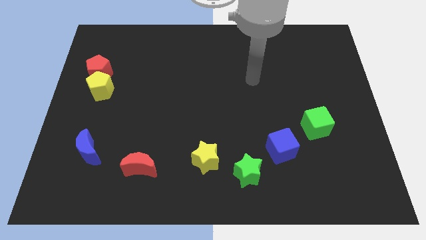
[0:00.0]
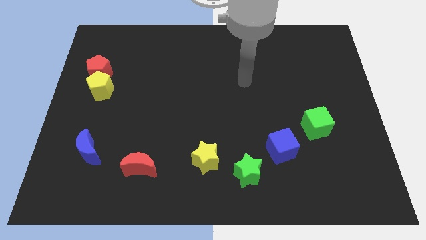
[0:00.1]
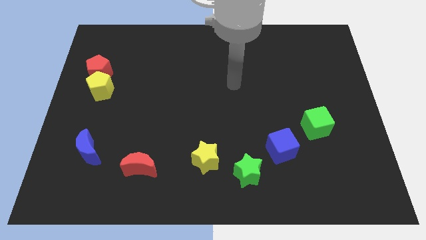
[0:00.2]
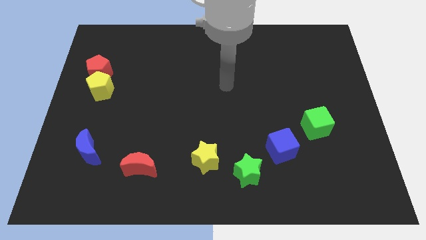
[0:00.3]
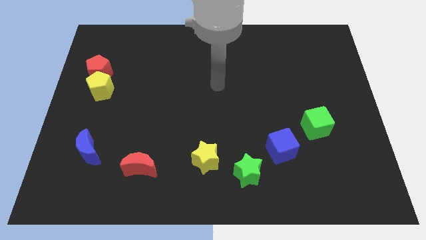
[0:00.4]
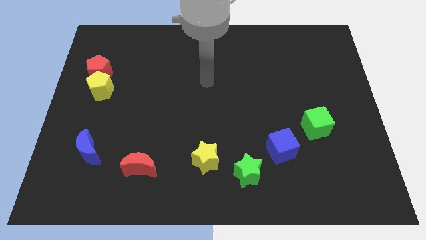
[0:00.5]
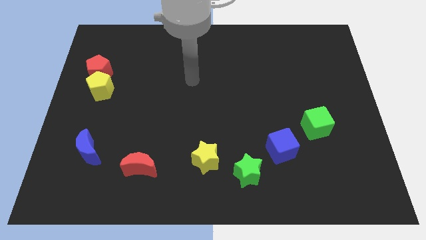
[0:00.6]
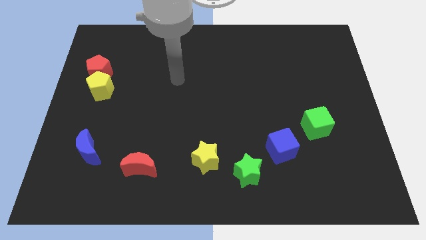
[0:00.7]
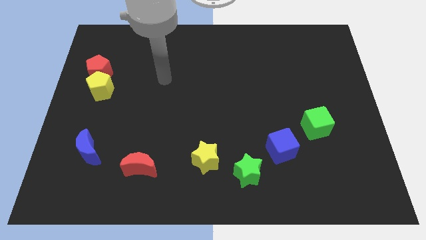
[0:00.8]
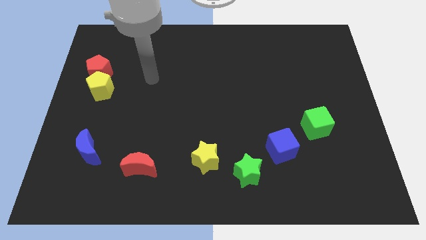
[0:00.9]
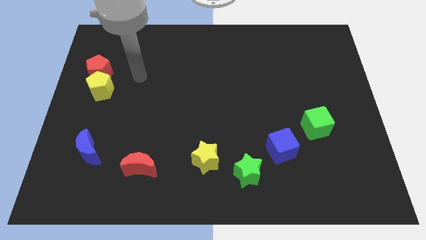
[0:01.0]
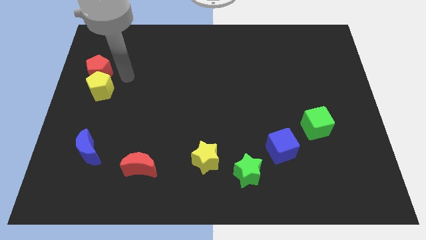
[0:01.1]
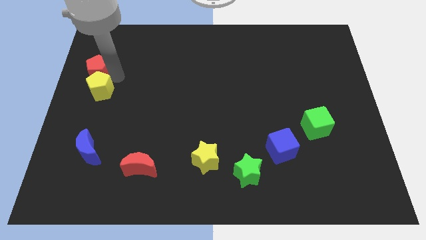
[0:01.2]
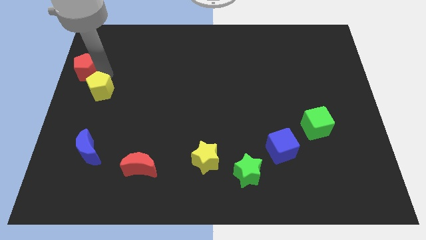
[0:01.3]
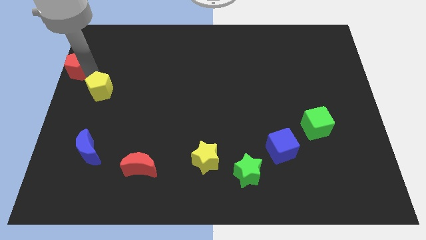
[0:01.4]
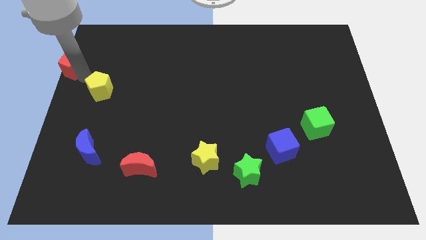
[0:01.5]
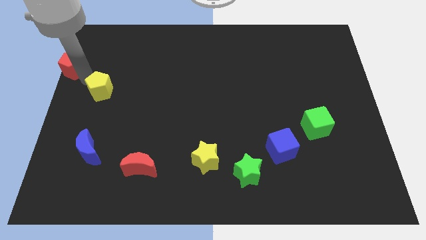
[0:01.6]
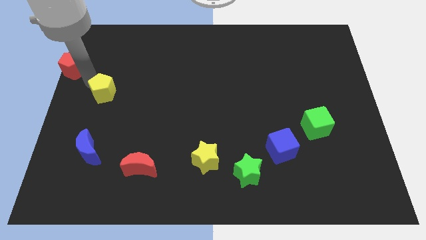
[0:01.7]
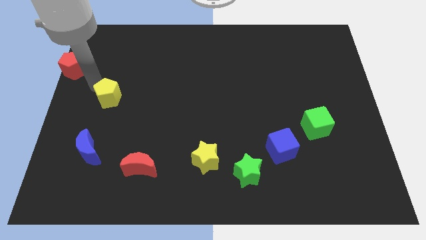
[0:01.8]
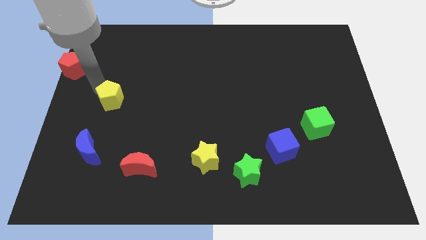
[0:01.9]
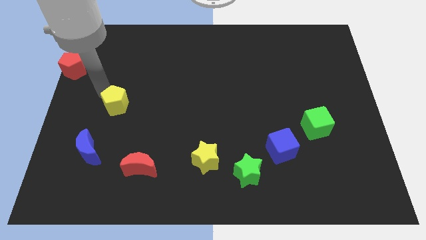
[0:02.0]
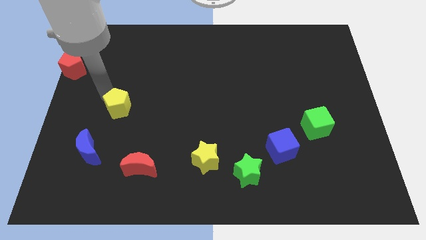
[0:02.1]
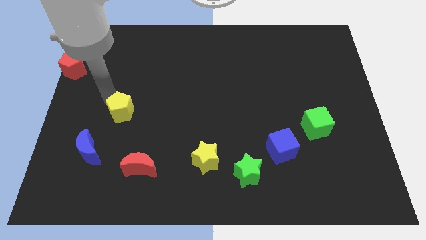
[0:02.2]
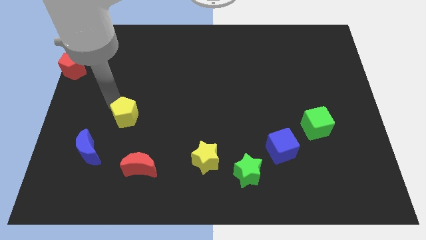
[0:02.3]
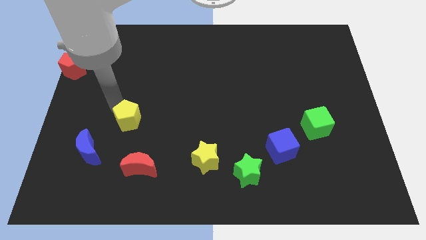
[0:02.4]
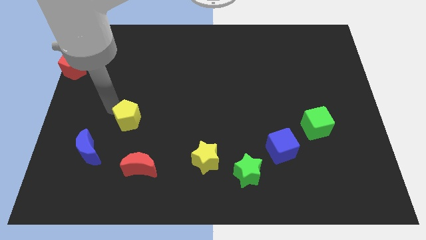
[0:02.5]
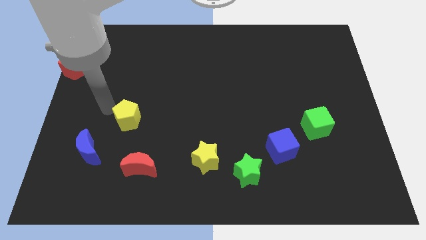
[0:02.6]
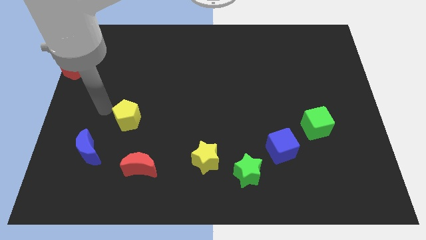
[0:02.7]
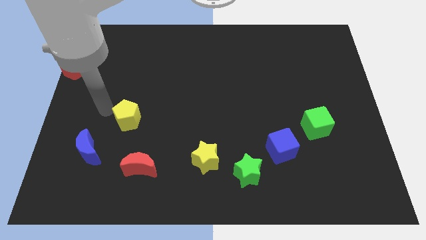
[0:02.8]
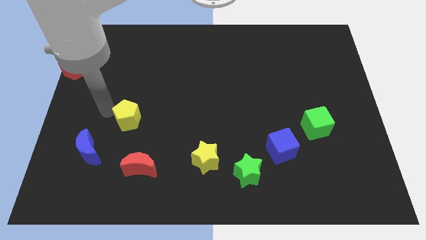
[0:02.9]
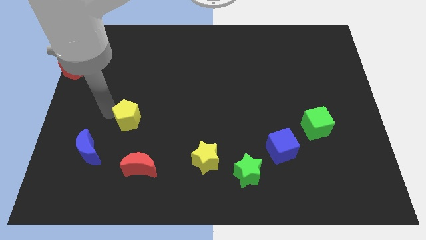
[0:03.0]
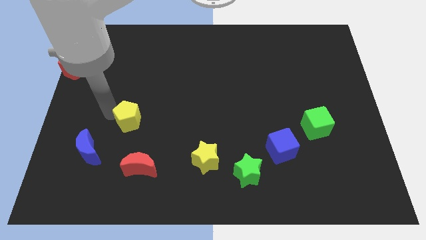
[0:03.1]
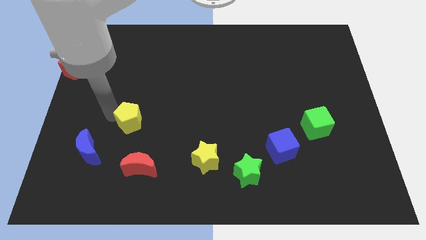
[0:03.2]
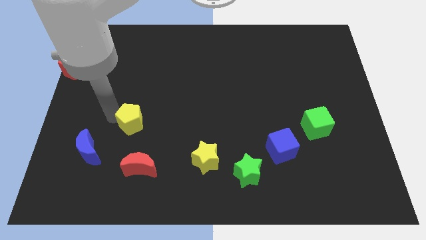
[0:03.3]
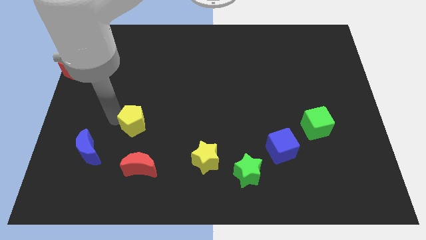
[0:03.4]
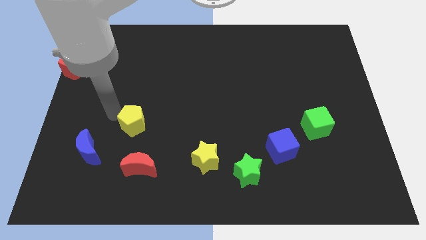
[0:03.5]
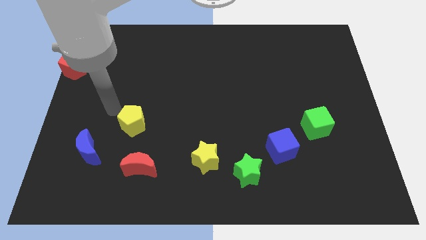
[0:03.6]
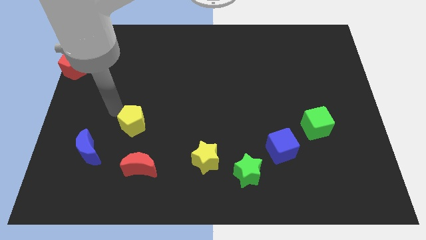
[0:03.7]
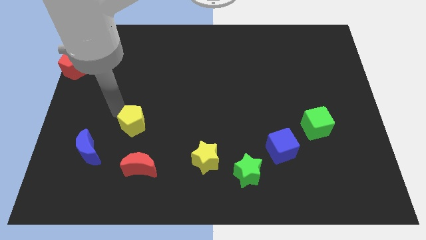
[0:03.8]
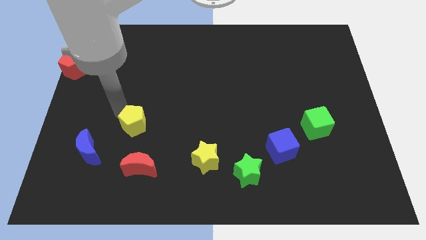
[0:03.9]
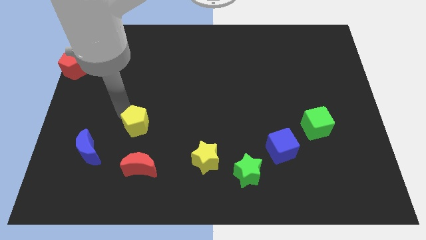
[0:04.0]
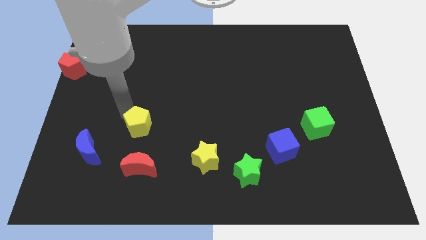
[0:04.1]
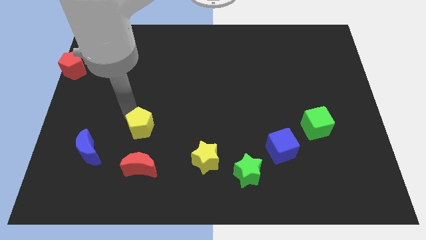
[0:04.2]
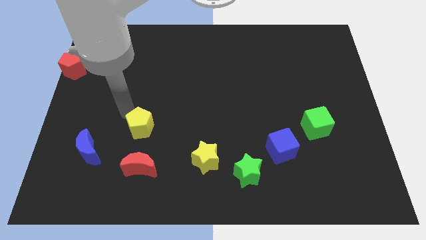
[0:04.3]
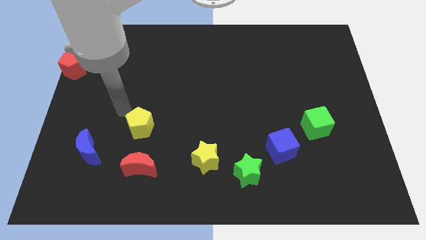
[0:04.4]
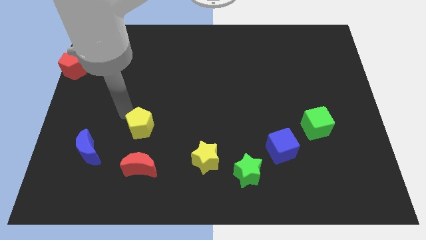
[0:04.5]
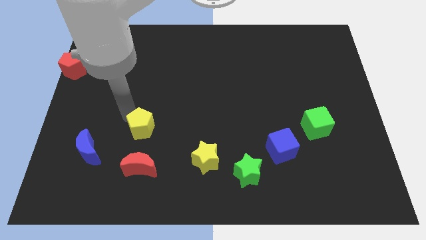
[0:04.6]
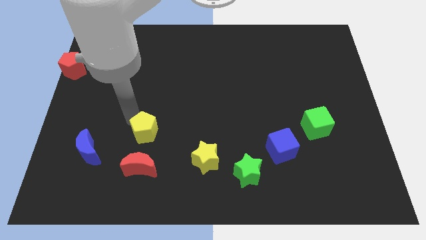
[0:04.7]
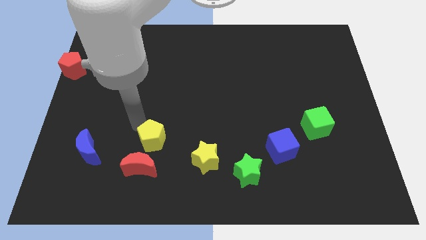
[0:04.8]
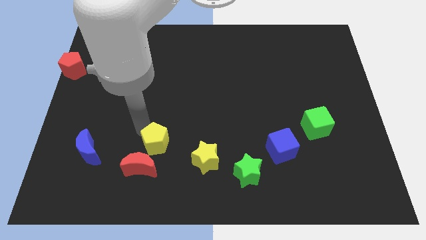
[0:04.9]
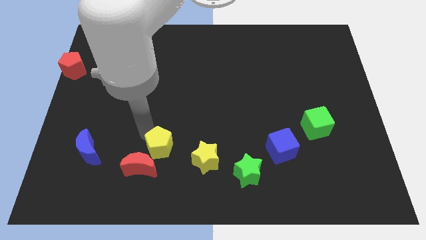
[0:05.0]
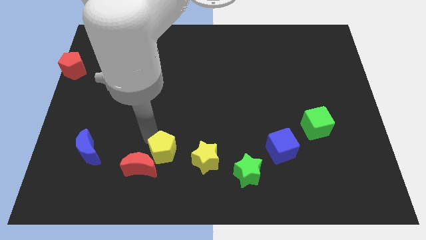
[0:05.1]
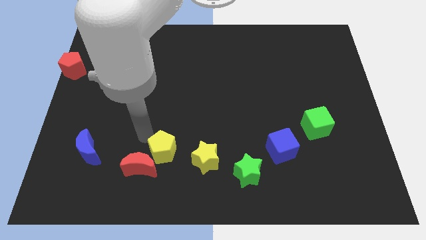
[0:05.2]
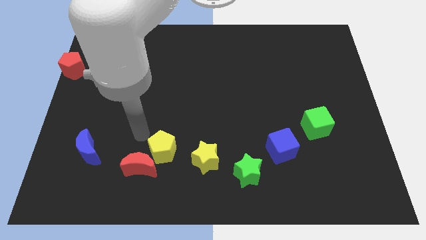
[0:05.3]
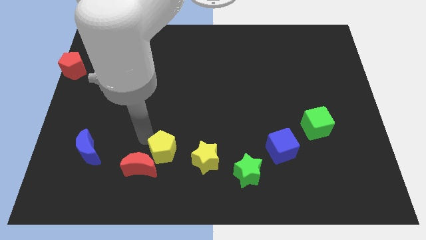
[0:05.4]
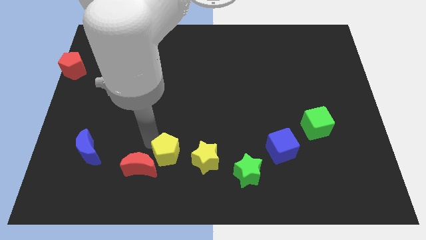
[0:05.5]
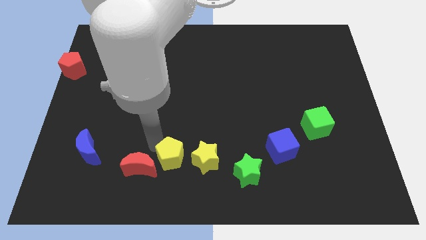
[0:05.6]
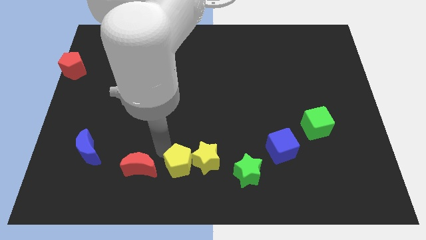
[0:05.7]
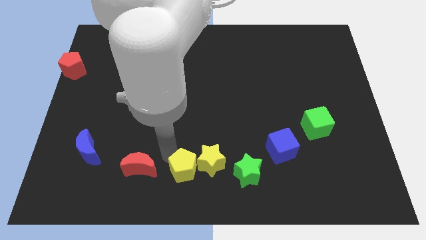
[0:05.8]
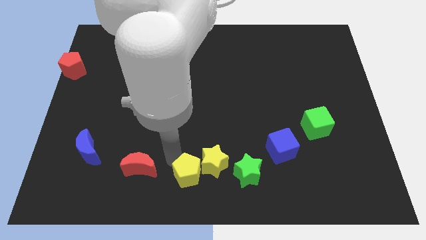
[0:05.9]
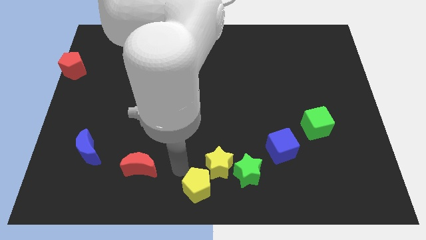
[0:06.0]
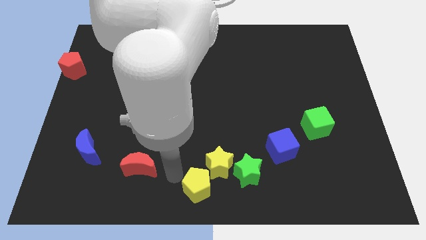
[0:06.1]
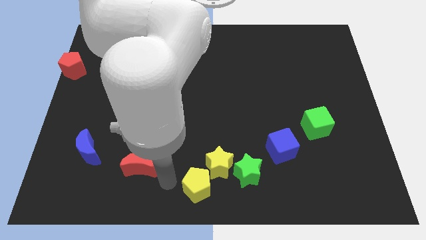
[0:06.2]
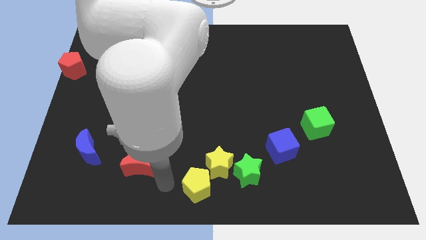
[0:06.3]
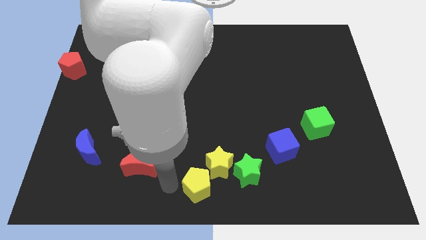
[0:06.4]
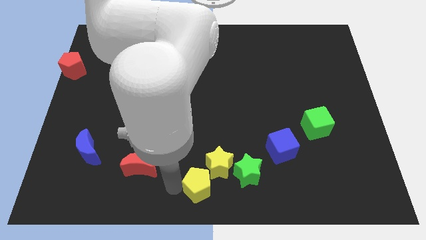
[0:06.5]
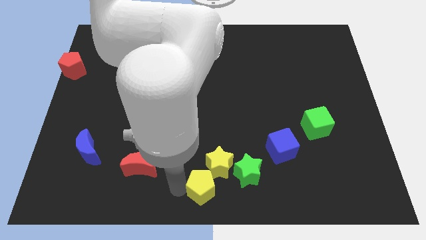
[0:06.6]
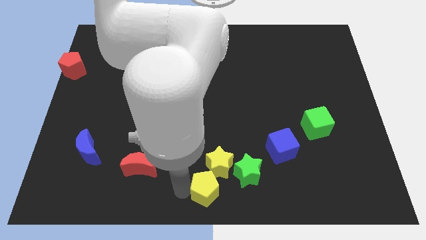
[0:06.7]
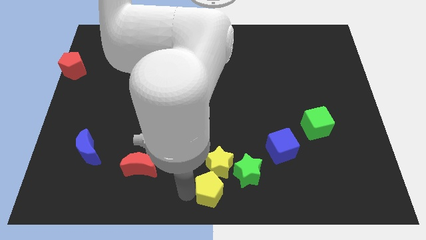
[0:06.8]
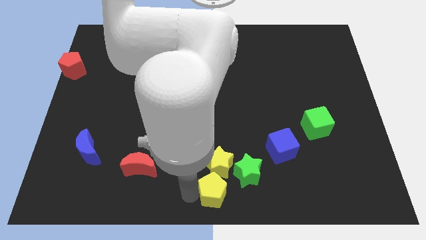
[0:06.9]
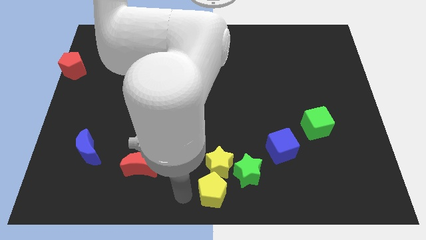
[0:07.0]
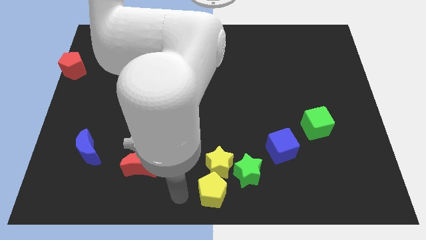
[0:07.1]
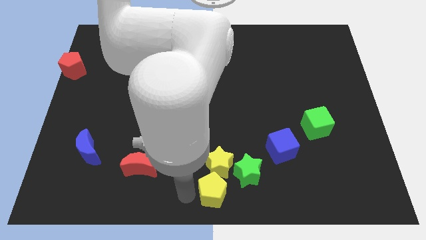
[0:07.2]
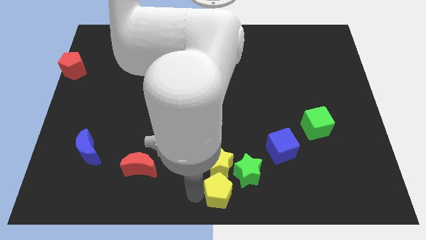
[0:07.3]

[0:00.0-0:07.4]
move the yellow pentagon to the bottom right side of the yellow star
